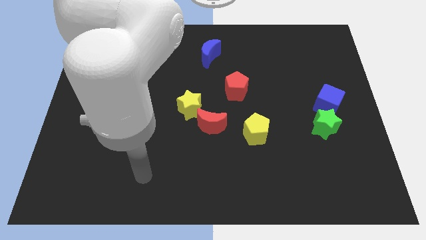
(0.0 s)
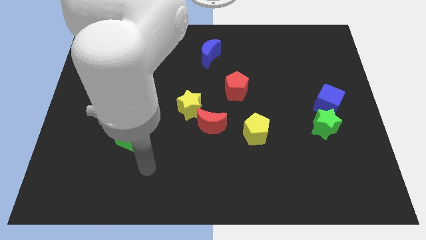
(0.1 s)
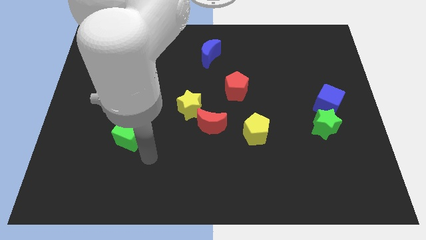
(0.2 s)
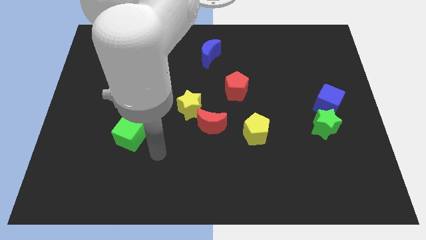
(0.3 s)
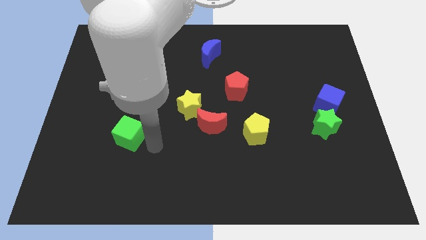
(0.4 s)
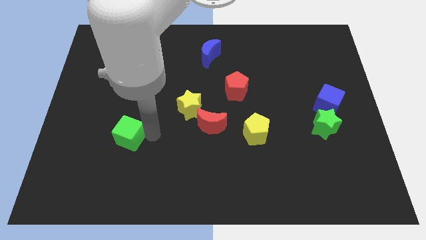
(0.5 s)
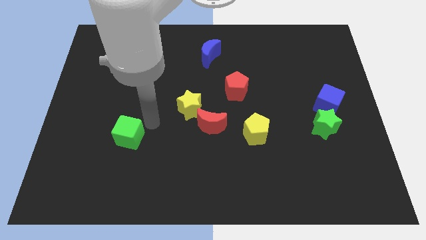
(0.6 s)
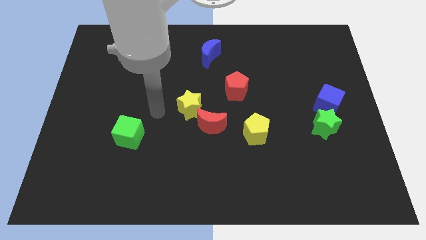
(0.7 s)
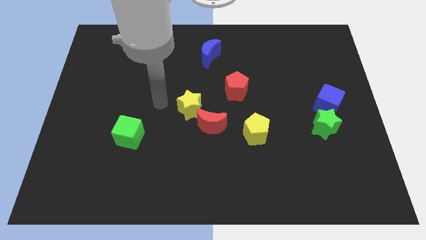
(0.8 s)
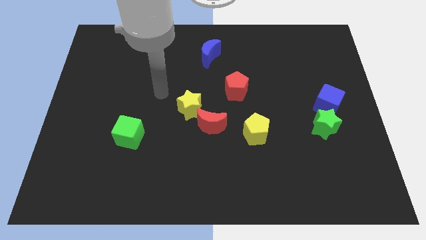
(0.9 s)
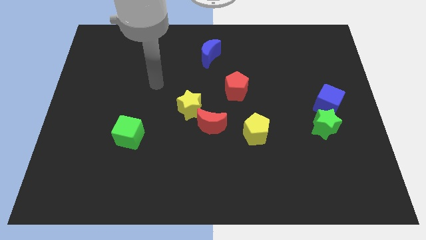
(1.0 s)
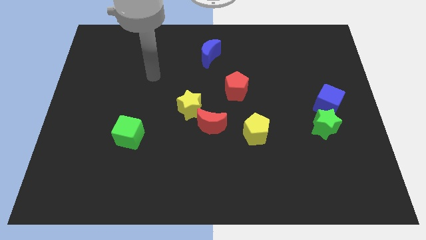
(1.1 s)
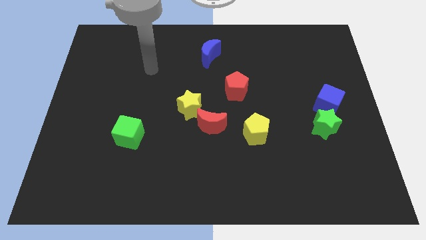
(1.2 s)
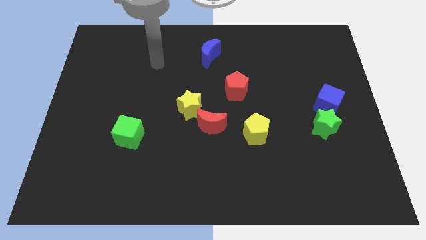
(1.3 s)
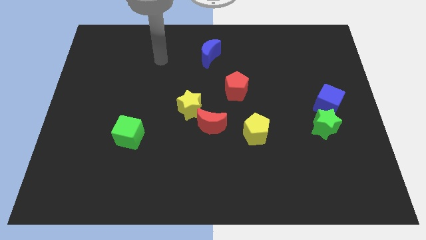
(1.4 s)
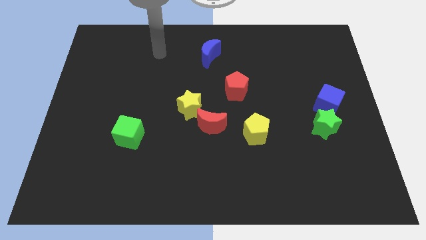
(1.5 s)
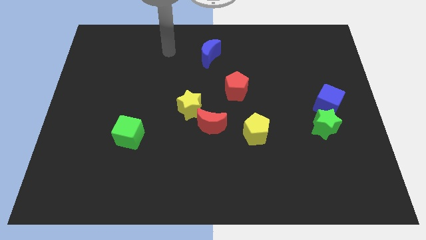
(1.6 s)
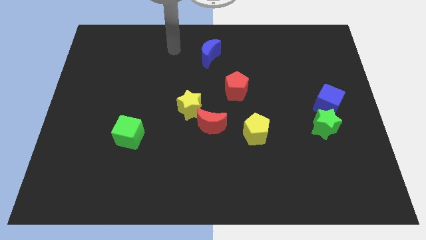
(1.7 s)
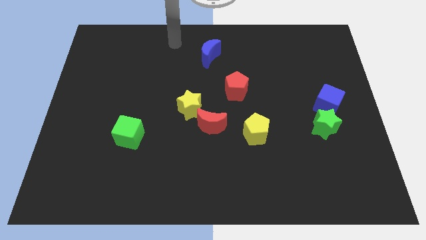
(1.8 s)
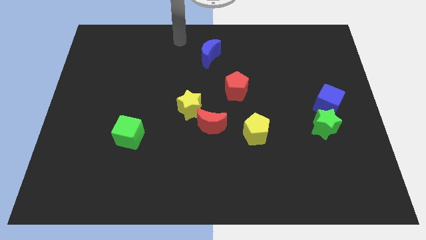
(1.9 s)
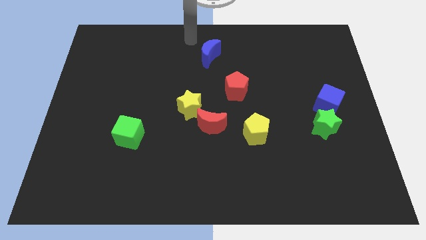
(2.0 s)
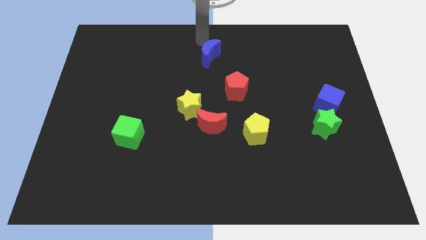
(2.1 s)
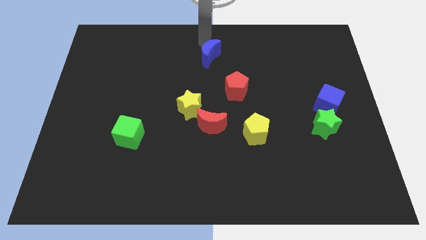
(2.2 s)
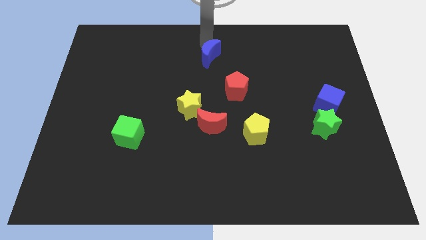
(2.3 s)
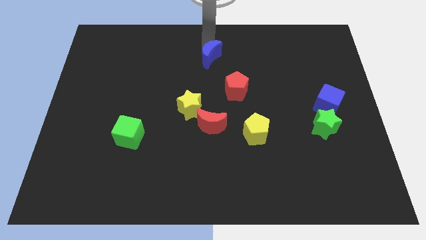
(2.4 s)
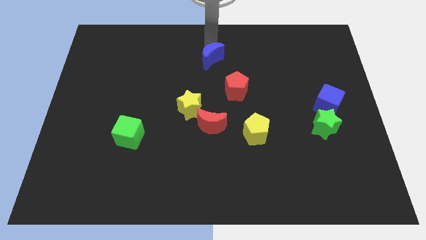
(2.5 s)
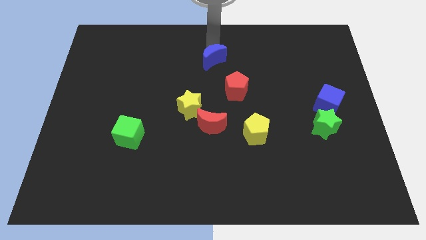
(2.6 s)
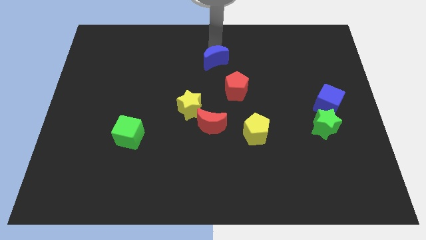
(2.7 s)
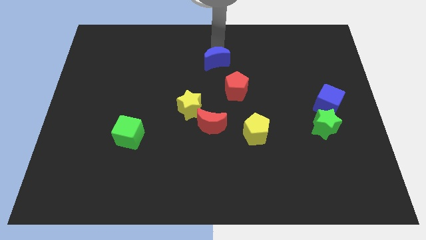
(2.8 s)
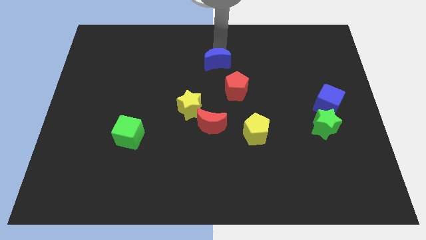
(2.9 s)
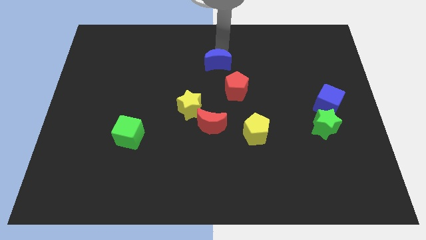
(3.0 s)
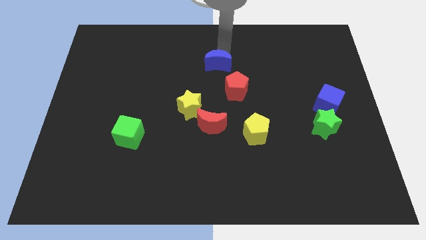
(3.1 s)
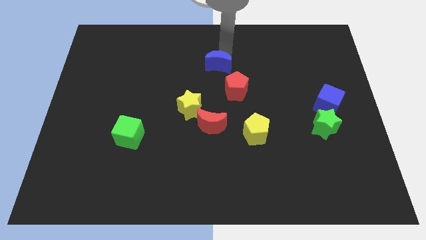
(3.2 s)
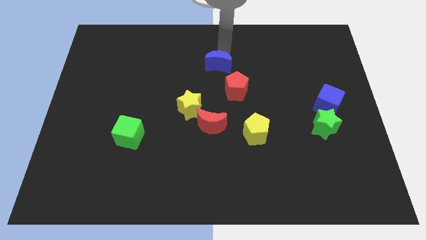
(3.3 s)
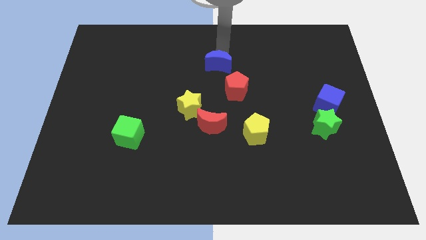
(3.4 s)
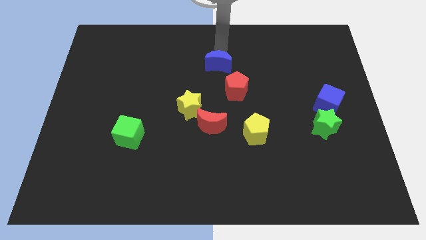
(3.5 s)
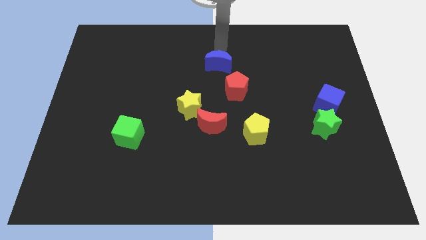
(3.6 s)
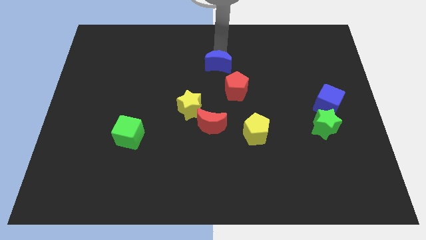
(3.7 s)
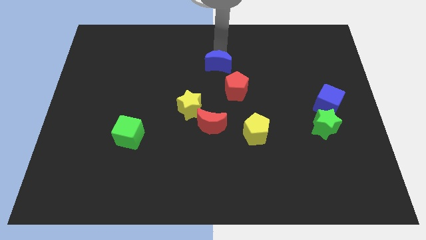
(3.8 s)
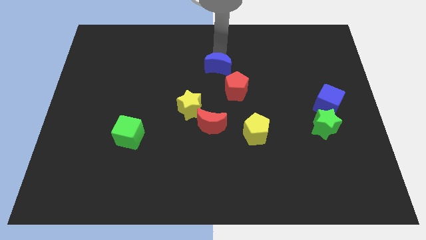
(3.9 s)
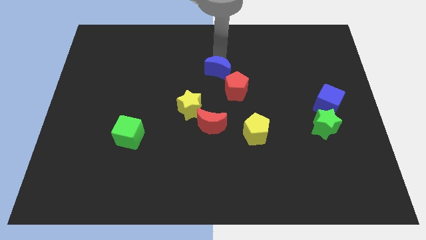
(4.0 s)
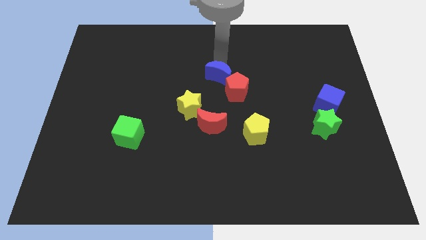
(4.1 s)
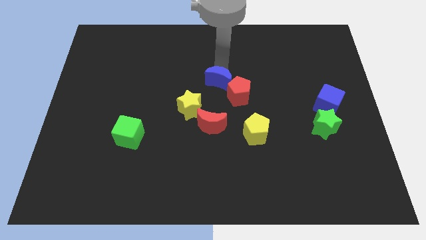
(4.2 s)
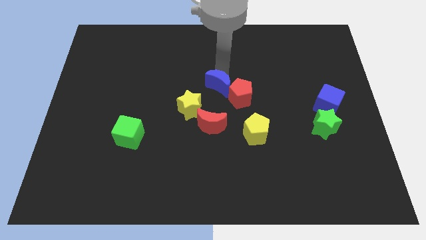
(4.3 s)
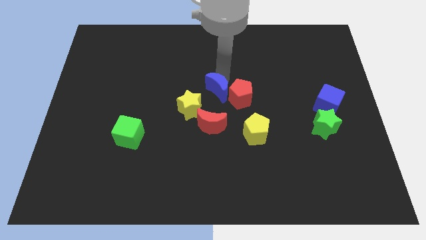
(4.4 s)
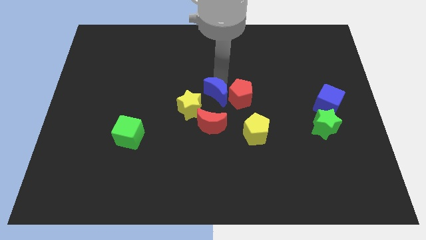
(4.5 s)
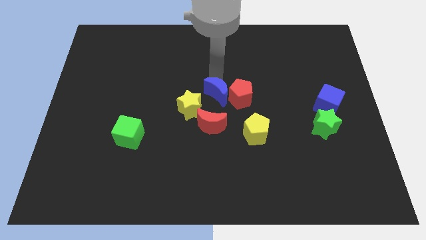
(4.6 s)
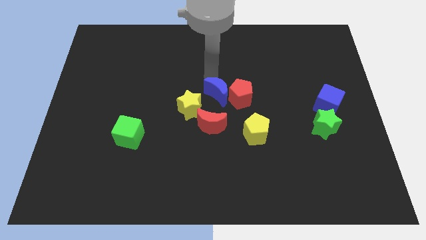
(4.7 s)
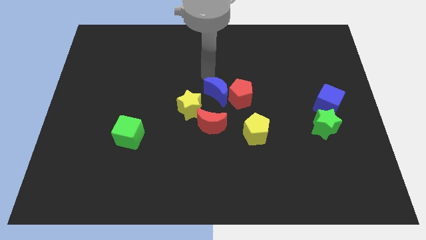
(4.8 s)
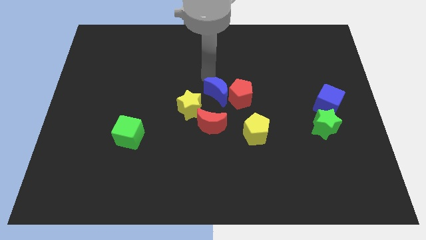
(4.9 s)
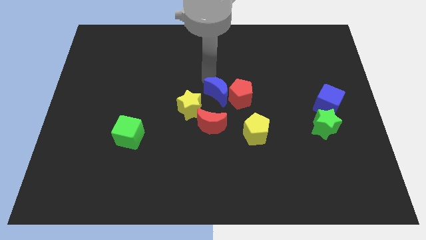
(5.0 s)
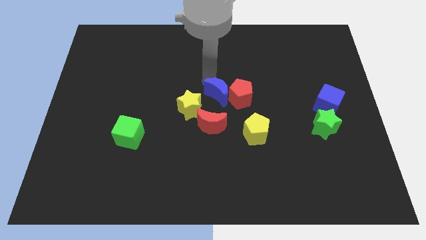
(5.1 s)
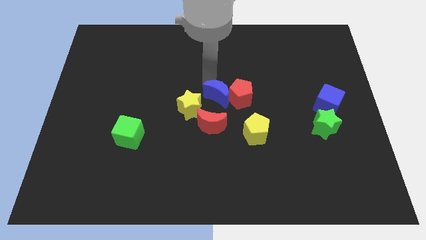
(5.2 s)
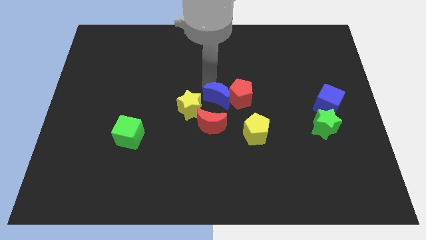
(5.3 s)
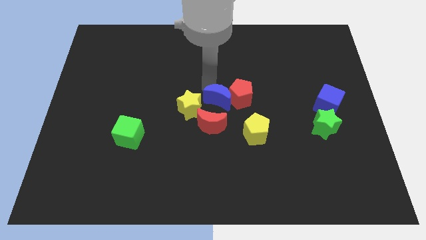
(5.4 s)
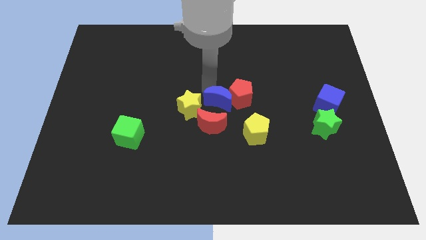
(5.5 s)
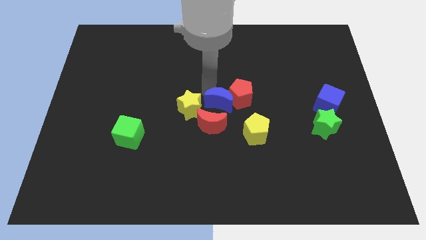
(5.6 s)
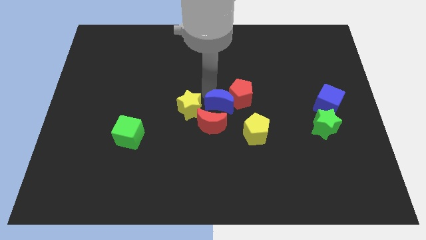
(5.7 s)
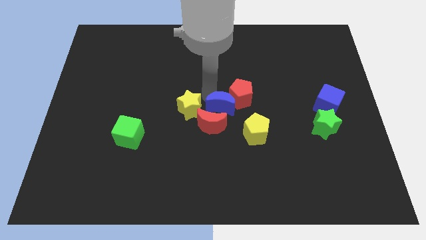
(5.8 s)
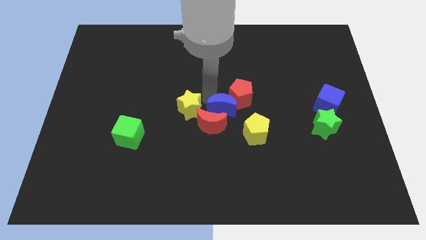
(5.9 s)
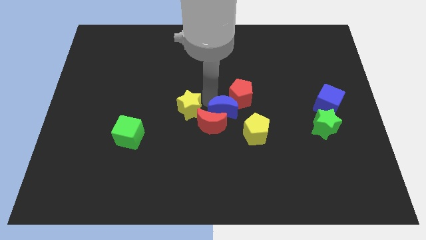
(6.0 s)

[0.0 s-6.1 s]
move the blue moon to the bottom right side of the yellow star
